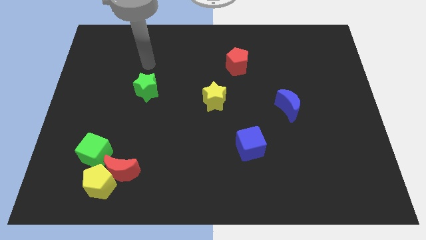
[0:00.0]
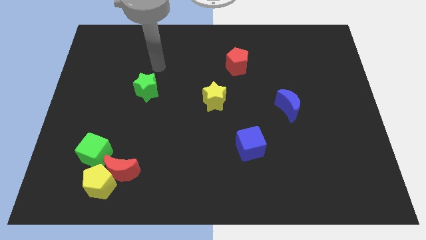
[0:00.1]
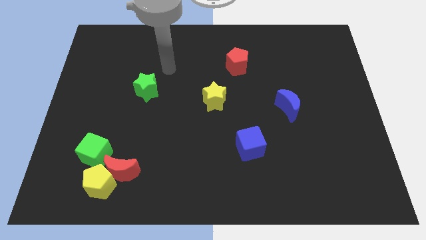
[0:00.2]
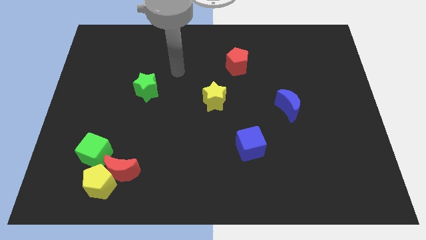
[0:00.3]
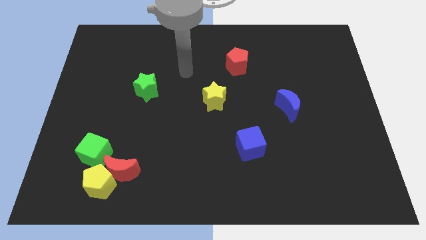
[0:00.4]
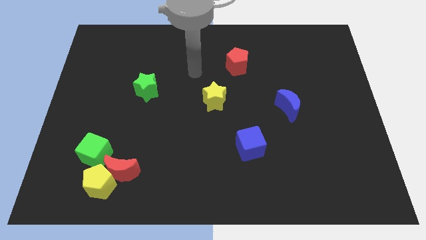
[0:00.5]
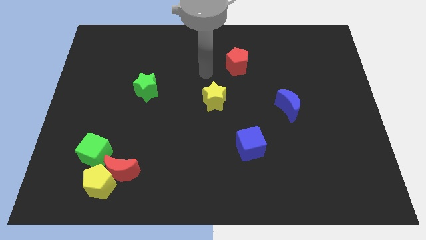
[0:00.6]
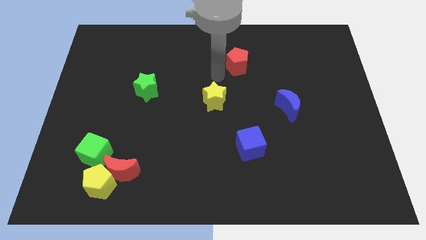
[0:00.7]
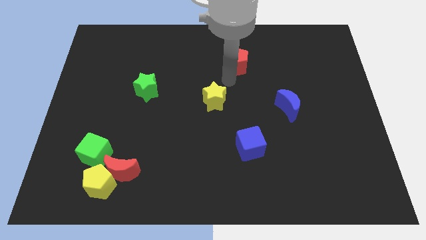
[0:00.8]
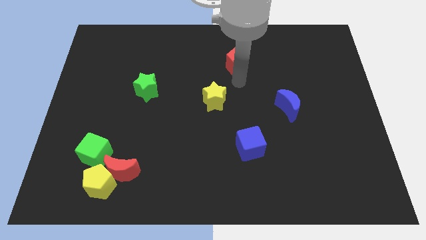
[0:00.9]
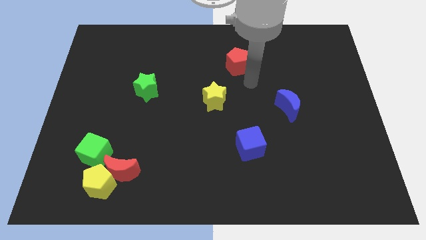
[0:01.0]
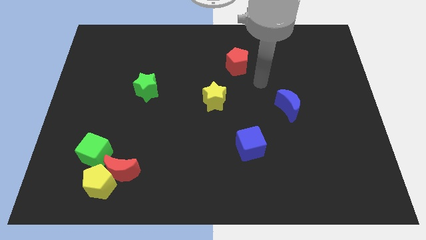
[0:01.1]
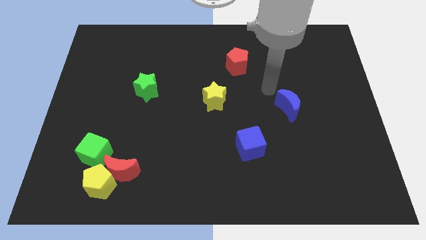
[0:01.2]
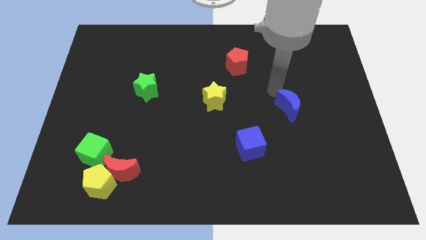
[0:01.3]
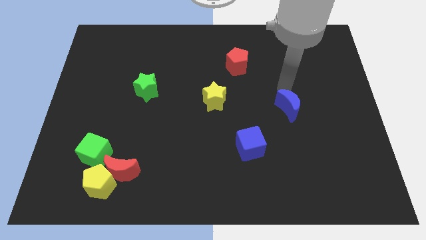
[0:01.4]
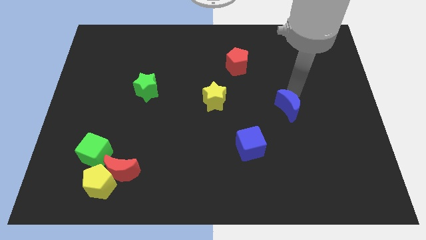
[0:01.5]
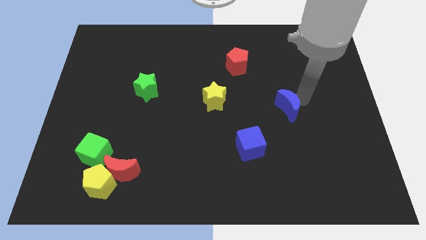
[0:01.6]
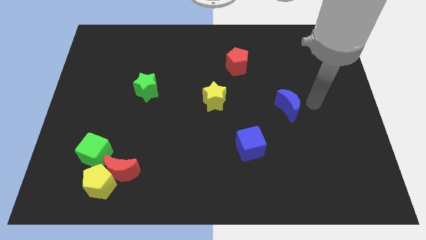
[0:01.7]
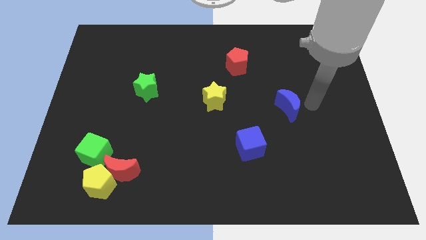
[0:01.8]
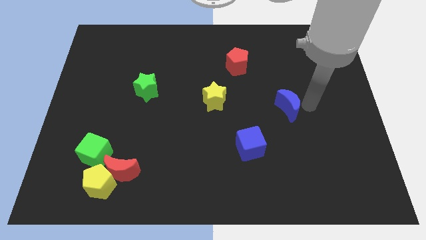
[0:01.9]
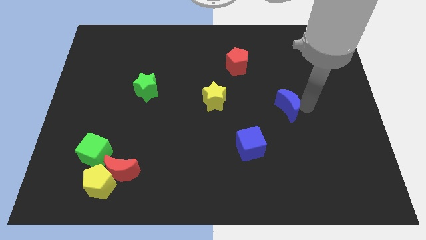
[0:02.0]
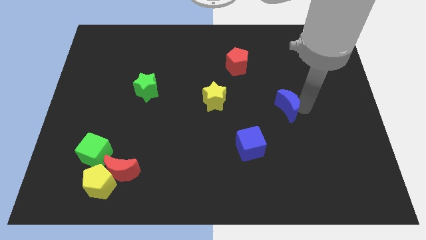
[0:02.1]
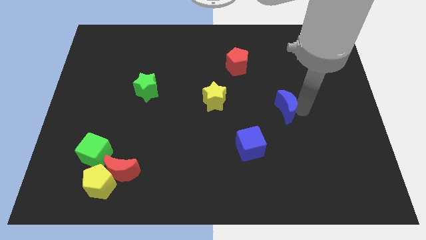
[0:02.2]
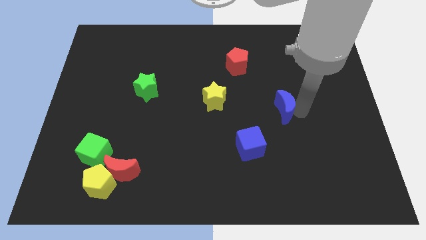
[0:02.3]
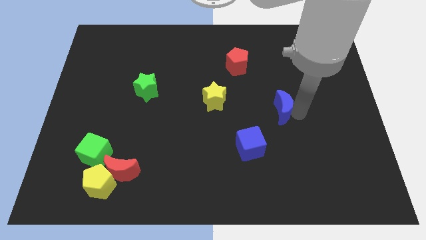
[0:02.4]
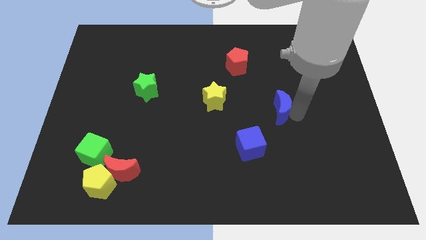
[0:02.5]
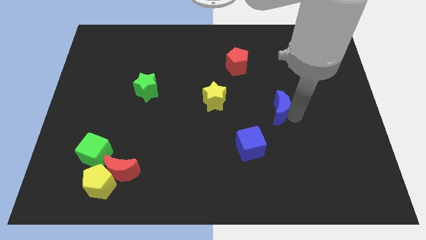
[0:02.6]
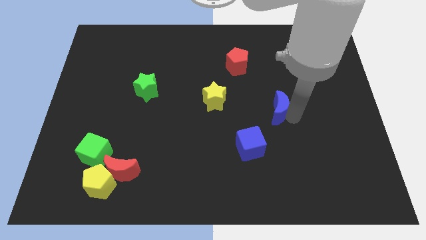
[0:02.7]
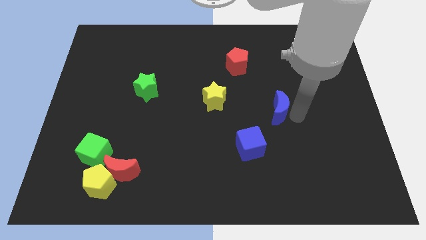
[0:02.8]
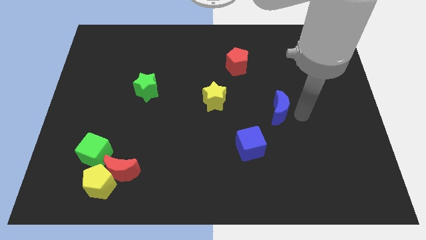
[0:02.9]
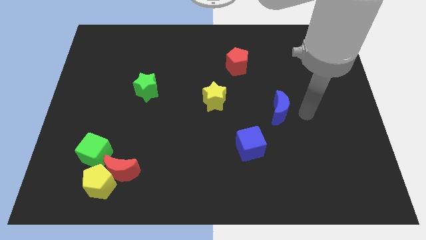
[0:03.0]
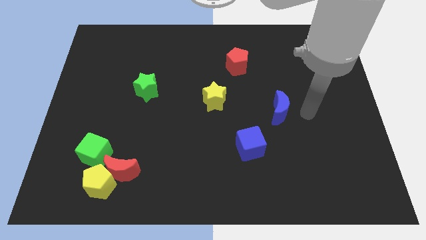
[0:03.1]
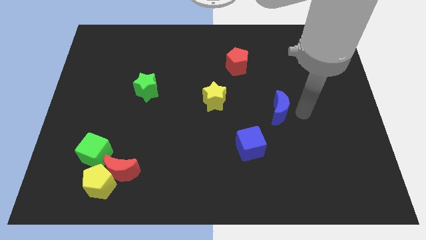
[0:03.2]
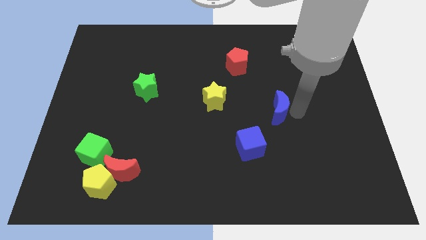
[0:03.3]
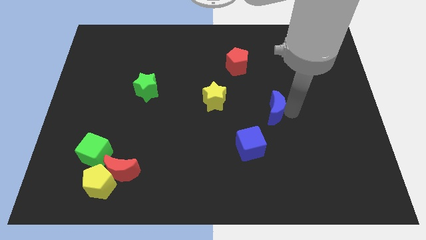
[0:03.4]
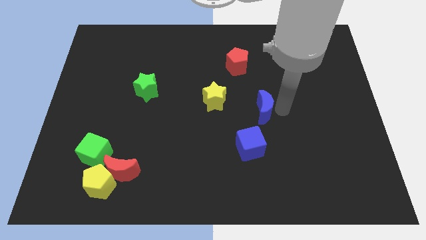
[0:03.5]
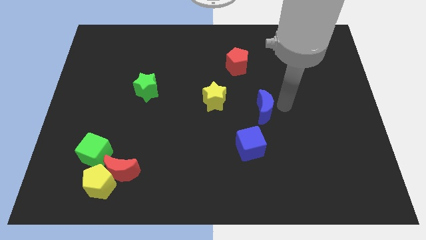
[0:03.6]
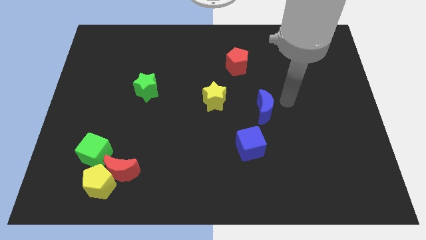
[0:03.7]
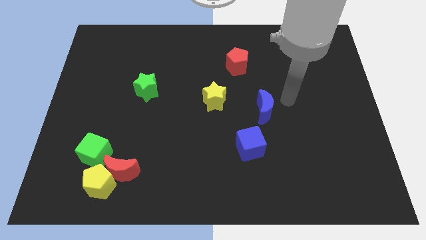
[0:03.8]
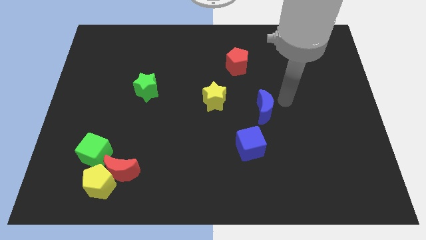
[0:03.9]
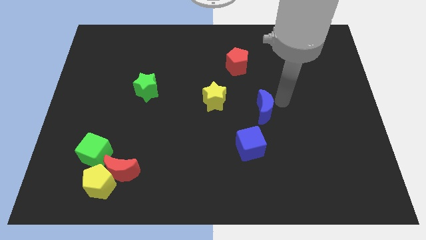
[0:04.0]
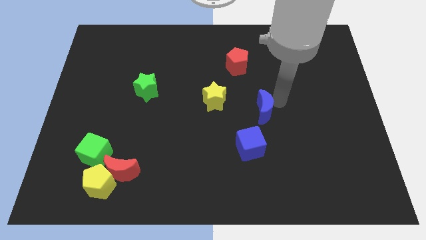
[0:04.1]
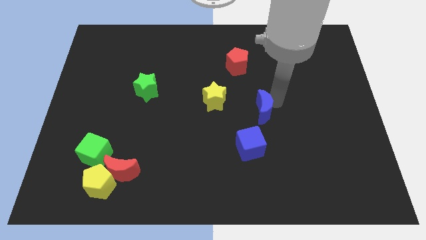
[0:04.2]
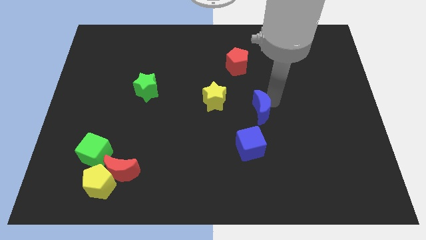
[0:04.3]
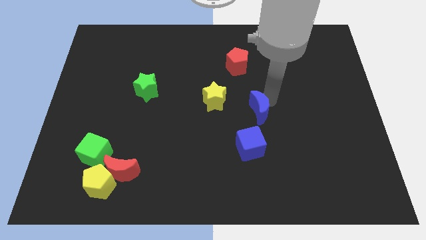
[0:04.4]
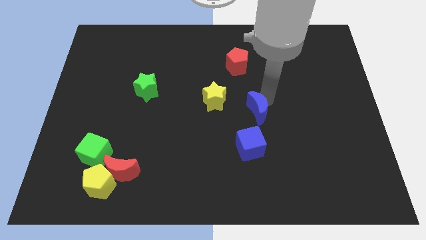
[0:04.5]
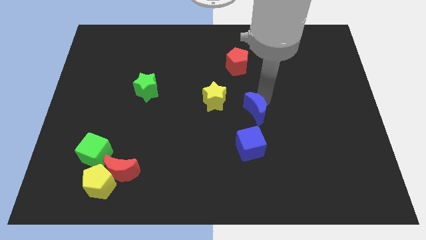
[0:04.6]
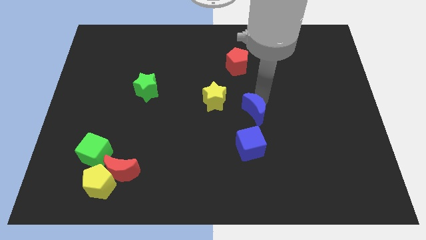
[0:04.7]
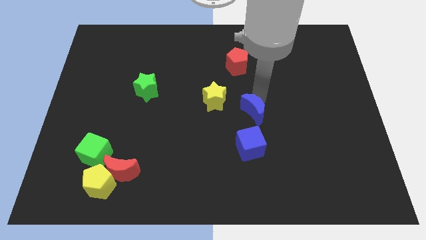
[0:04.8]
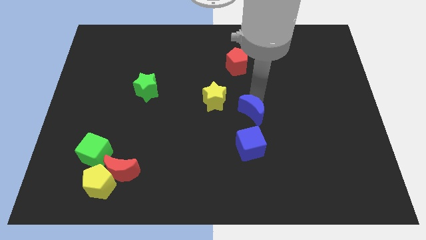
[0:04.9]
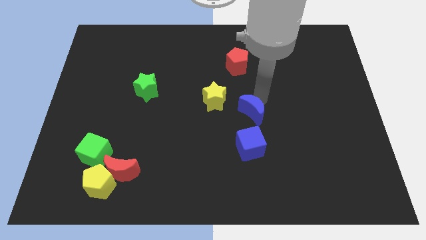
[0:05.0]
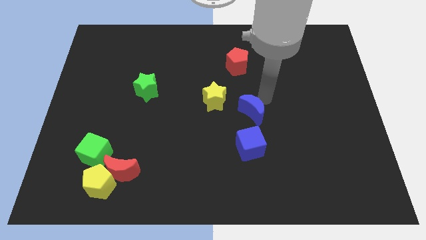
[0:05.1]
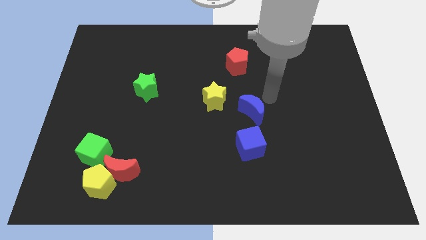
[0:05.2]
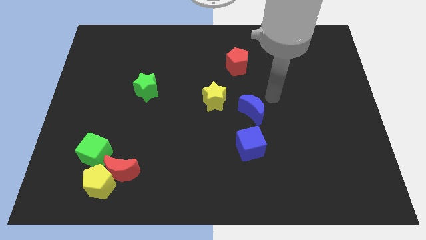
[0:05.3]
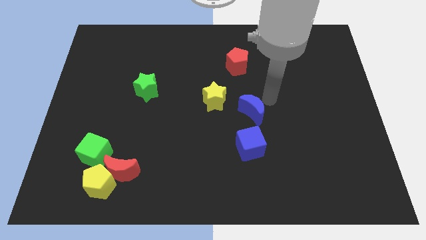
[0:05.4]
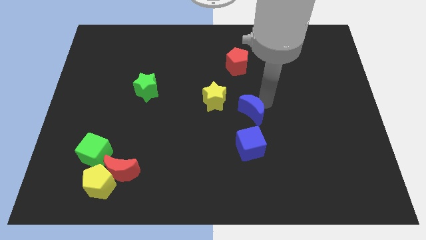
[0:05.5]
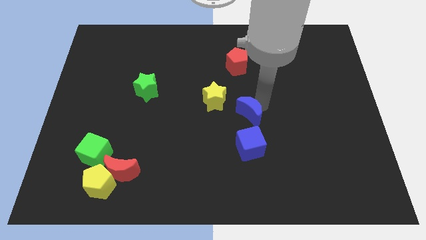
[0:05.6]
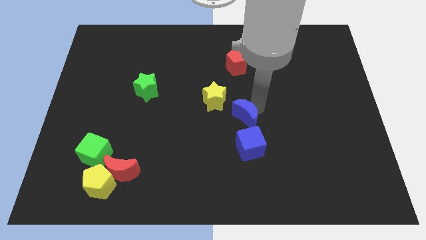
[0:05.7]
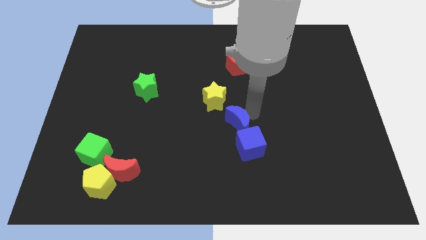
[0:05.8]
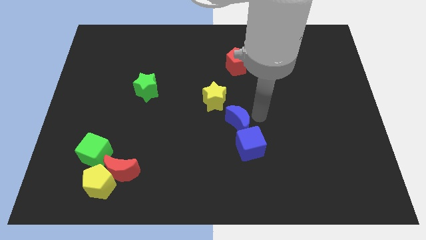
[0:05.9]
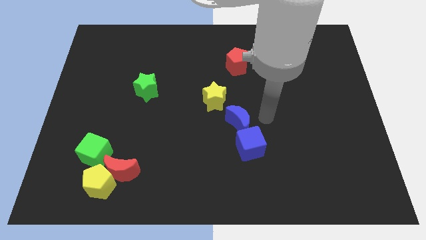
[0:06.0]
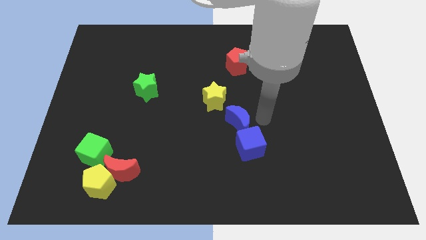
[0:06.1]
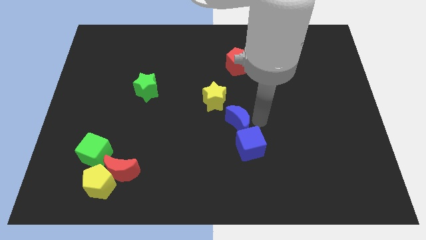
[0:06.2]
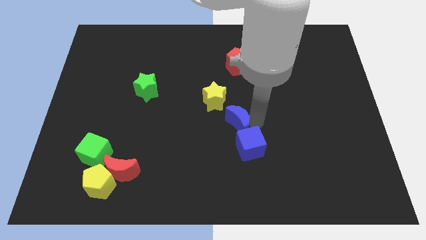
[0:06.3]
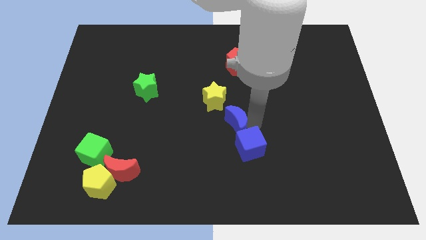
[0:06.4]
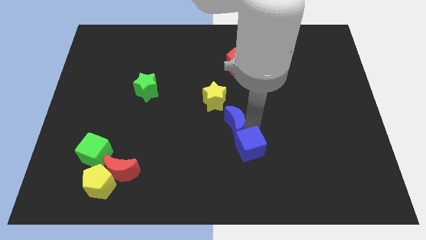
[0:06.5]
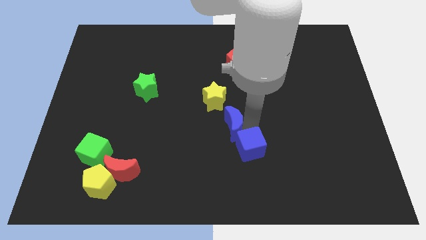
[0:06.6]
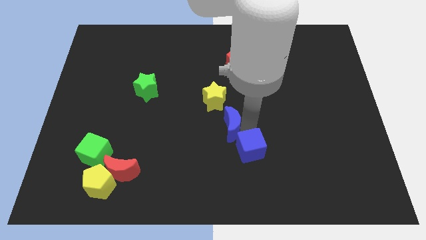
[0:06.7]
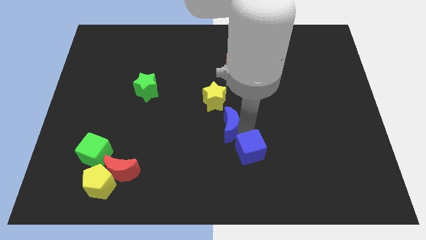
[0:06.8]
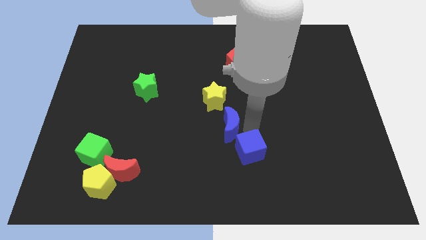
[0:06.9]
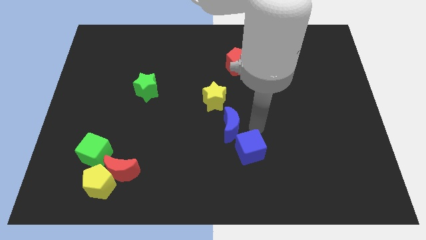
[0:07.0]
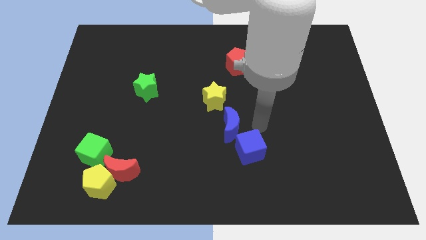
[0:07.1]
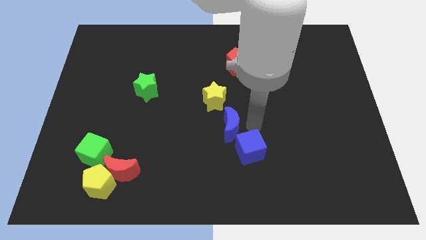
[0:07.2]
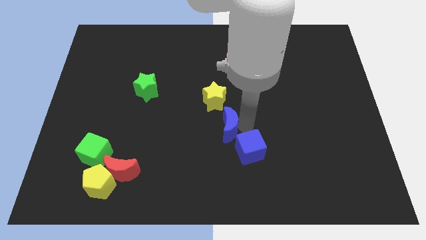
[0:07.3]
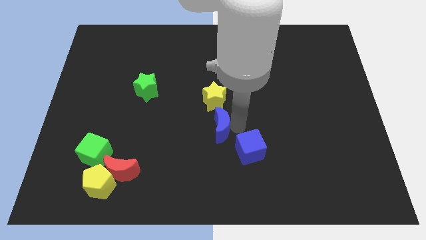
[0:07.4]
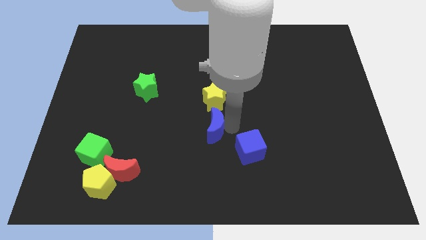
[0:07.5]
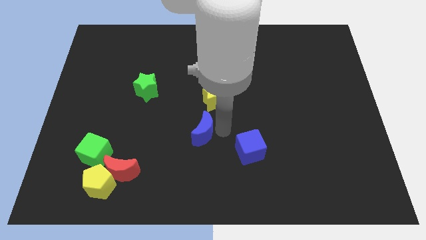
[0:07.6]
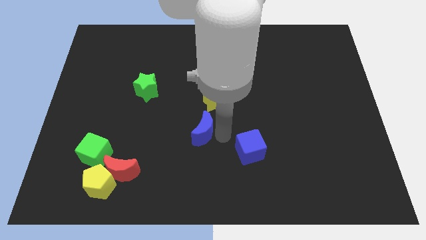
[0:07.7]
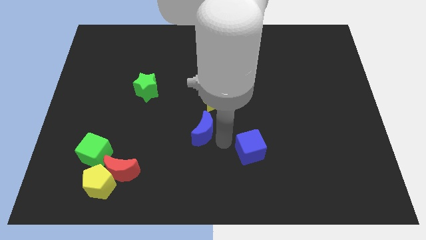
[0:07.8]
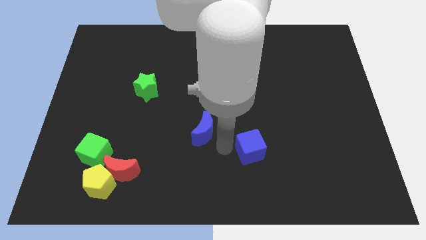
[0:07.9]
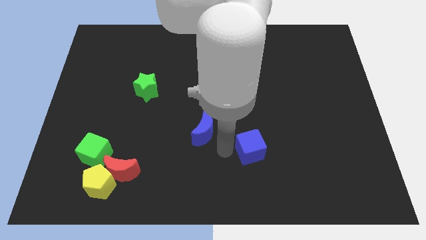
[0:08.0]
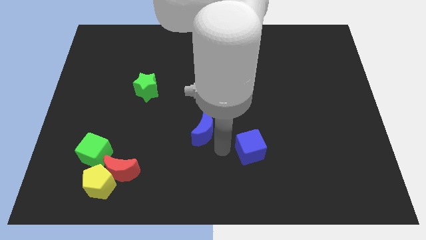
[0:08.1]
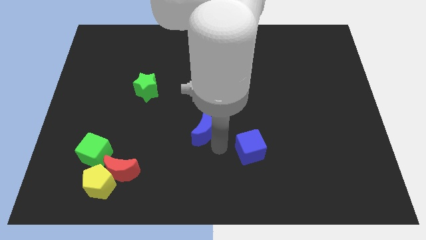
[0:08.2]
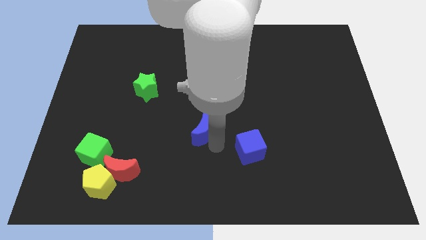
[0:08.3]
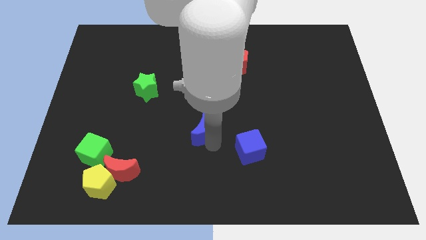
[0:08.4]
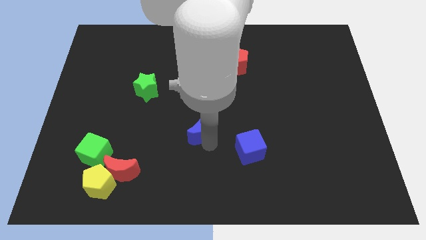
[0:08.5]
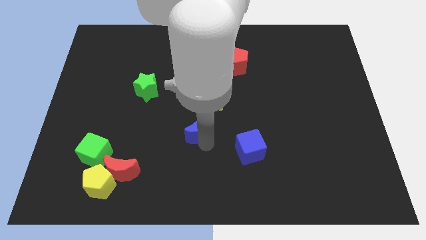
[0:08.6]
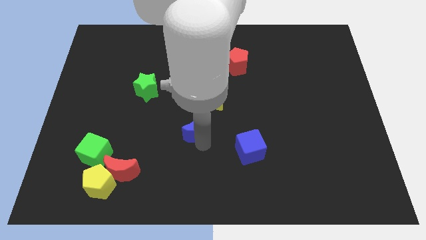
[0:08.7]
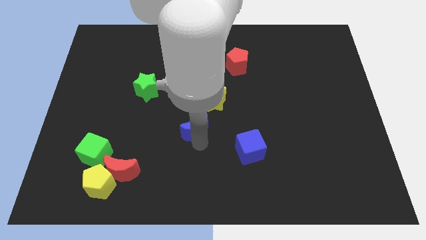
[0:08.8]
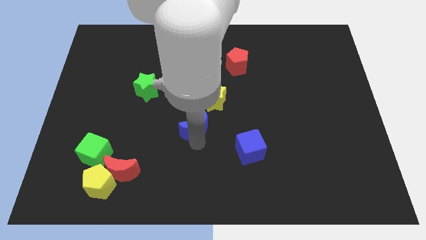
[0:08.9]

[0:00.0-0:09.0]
slide the blue moon to the left
